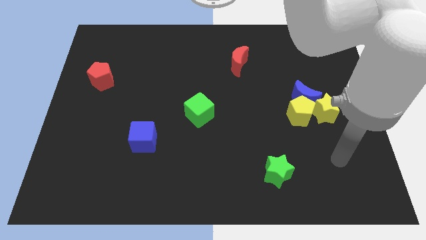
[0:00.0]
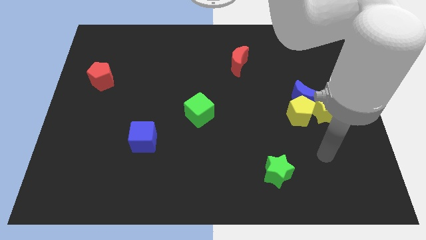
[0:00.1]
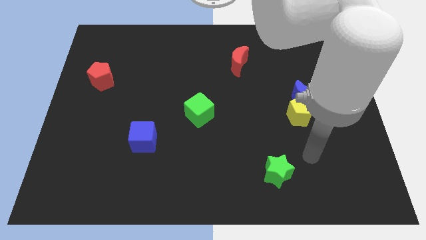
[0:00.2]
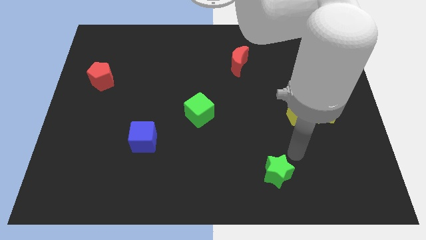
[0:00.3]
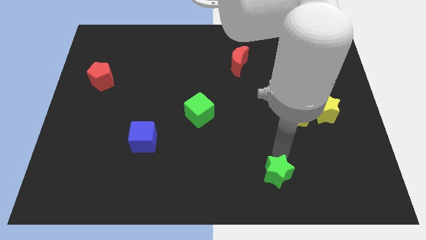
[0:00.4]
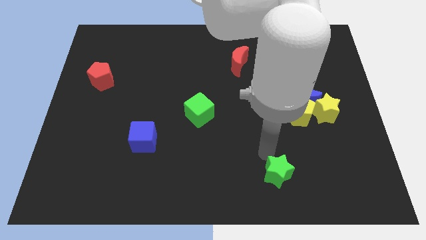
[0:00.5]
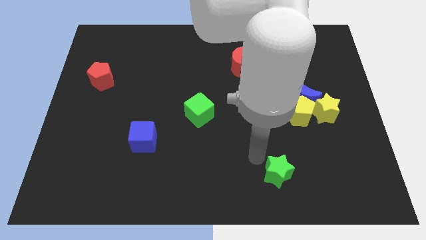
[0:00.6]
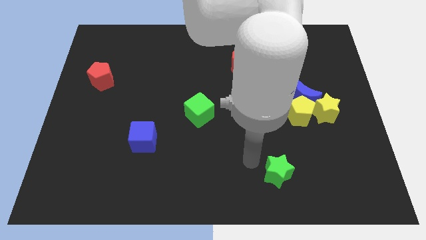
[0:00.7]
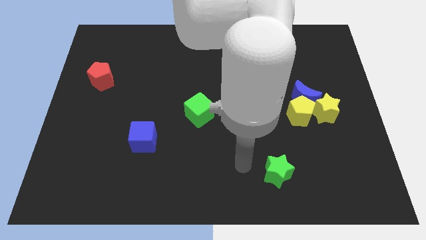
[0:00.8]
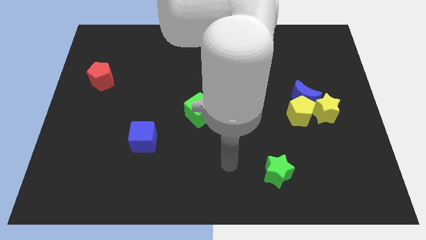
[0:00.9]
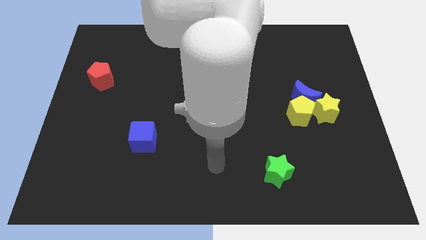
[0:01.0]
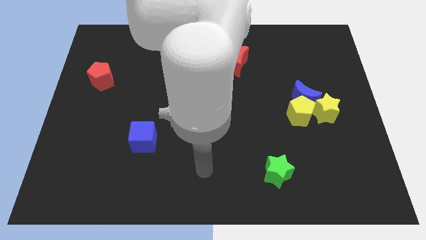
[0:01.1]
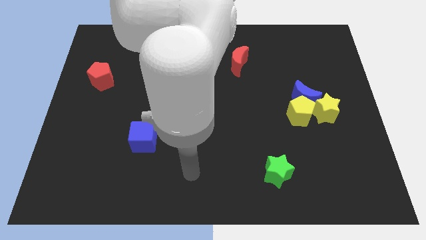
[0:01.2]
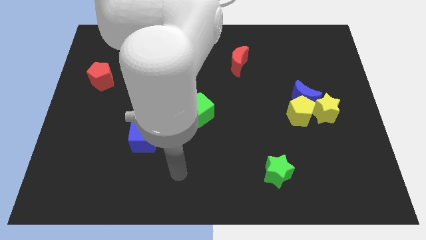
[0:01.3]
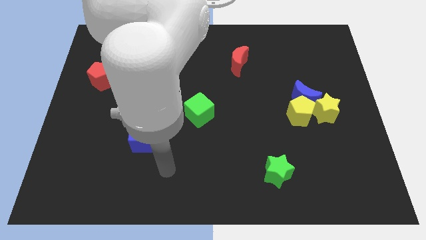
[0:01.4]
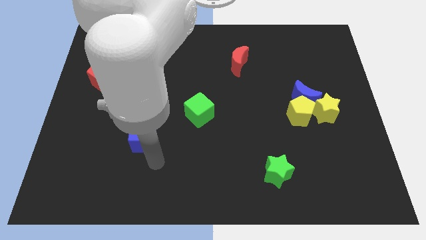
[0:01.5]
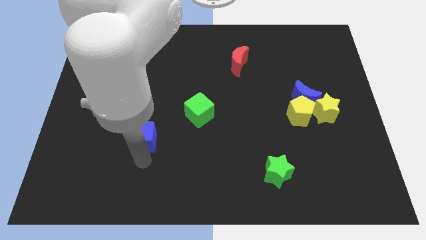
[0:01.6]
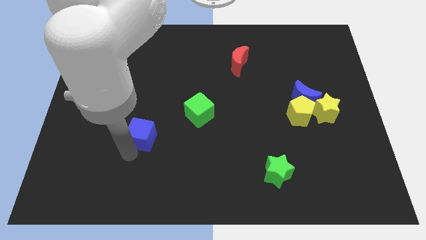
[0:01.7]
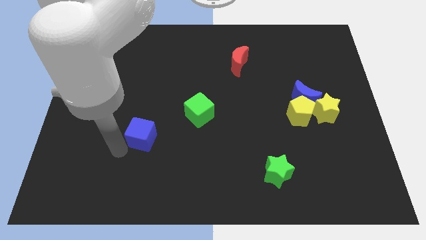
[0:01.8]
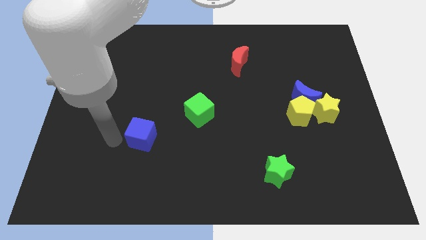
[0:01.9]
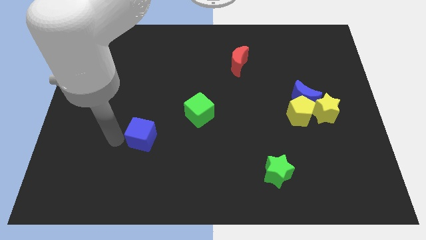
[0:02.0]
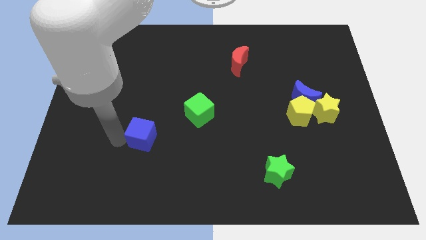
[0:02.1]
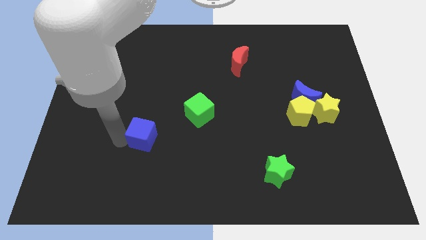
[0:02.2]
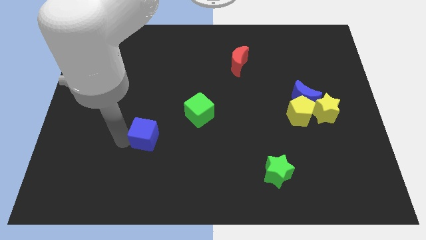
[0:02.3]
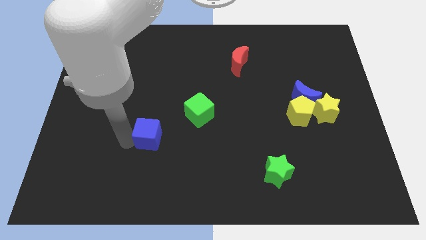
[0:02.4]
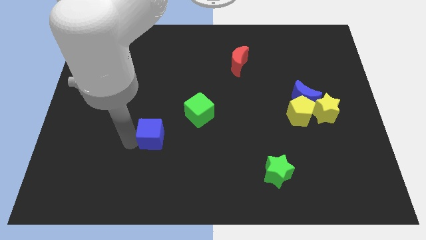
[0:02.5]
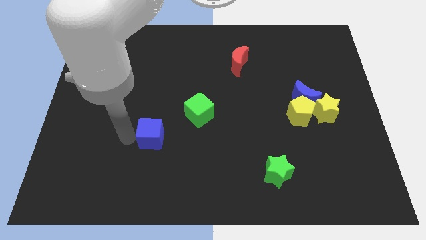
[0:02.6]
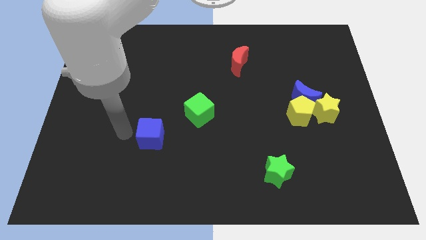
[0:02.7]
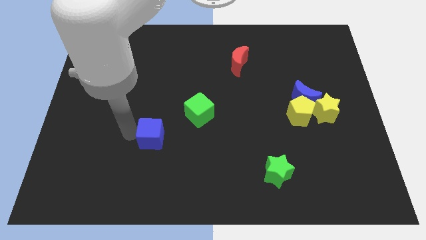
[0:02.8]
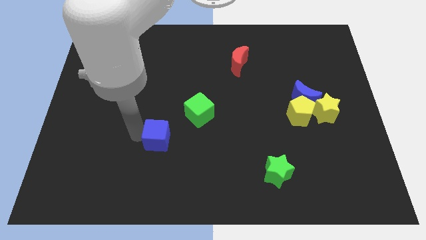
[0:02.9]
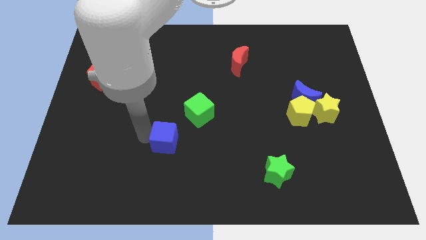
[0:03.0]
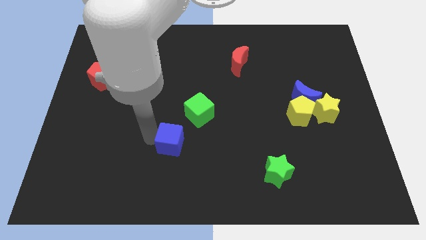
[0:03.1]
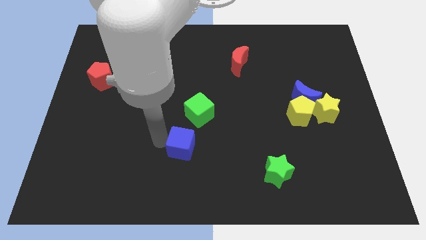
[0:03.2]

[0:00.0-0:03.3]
slide the blue cube slightly to the right

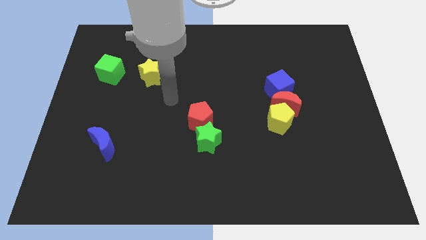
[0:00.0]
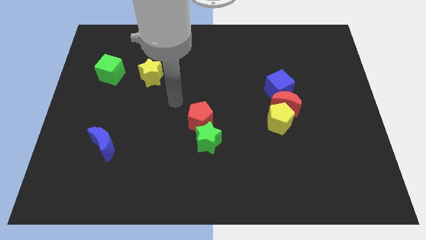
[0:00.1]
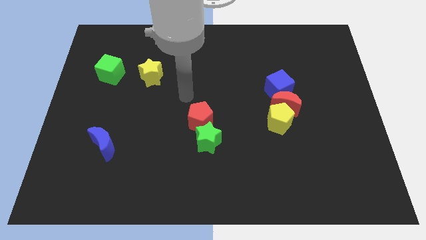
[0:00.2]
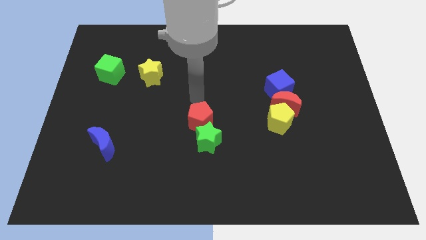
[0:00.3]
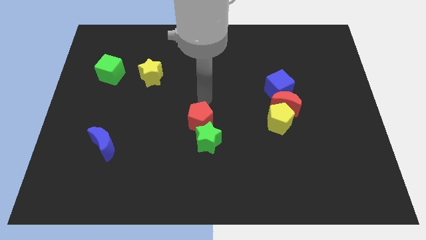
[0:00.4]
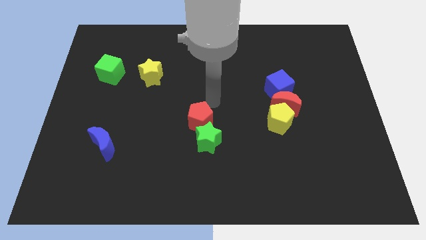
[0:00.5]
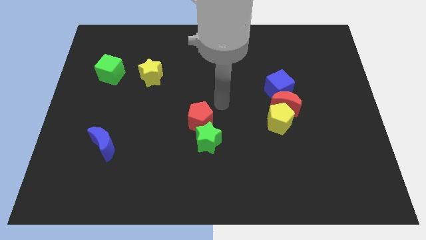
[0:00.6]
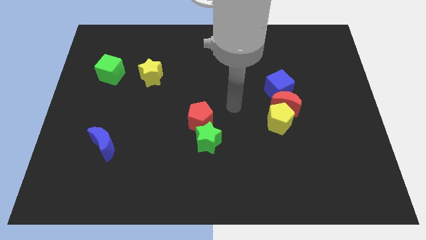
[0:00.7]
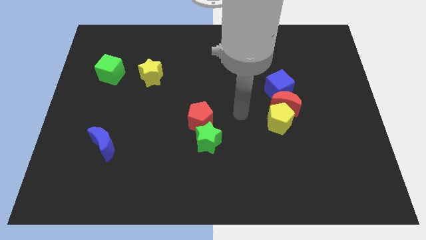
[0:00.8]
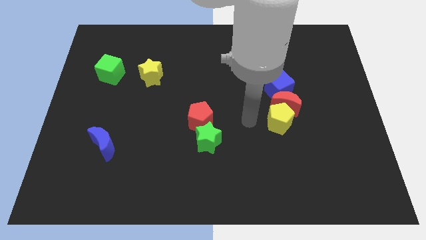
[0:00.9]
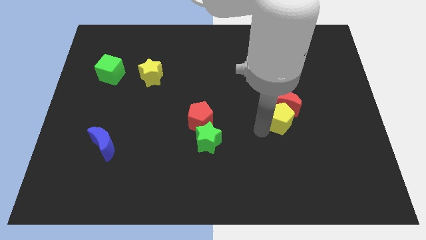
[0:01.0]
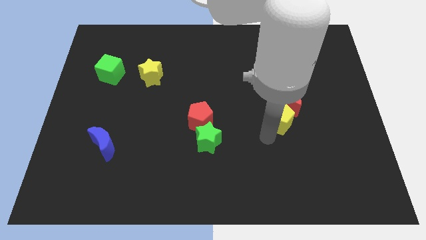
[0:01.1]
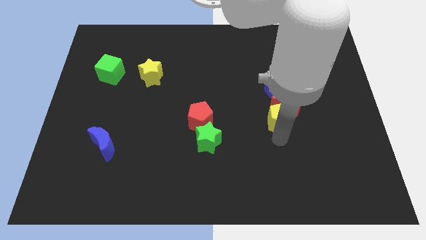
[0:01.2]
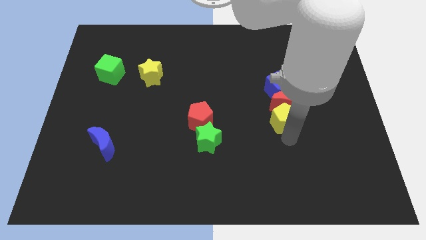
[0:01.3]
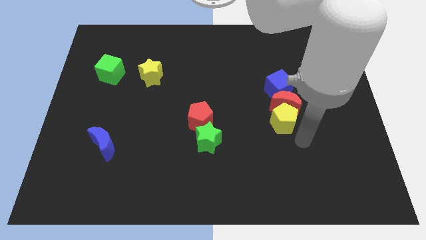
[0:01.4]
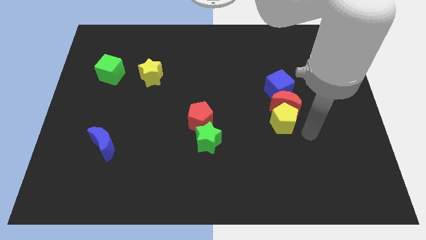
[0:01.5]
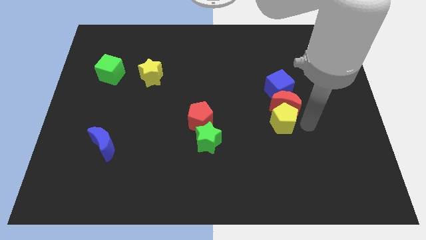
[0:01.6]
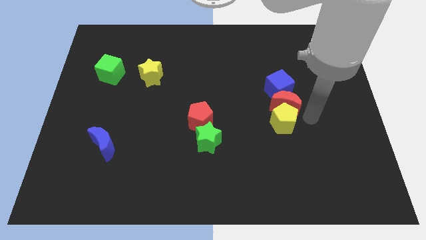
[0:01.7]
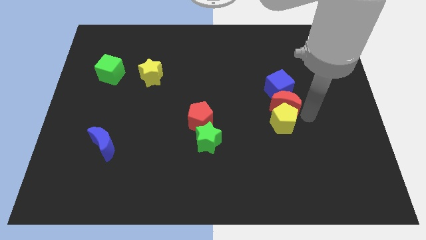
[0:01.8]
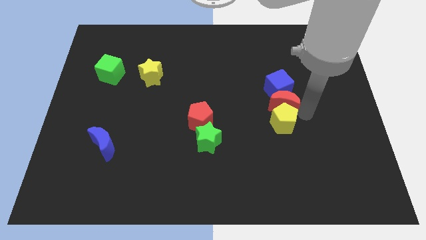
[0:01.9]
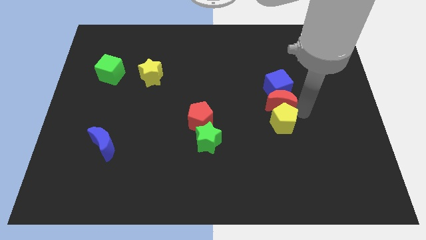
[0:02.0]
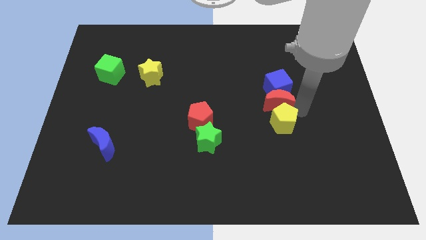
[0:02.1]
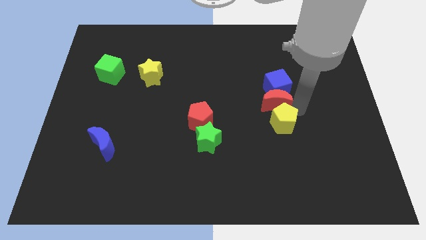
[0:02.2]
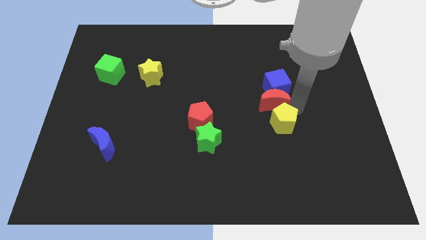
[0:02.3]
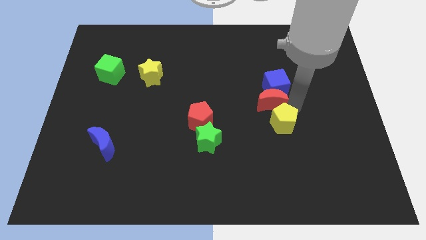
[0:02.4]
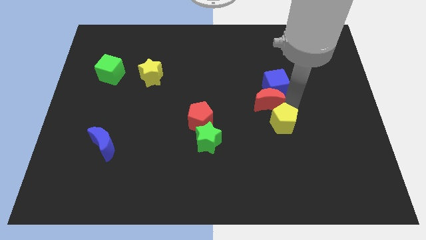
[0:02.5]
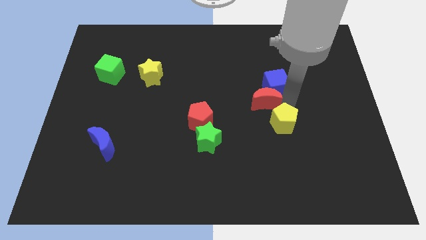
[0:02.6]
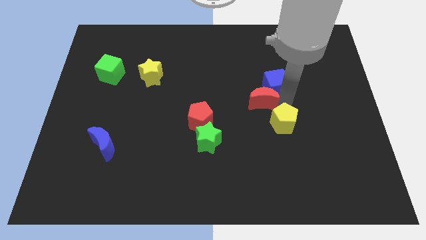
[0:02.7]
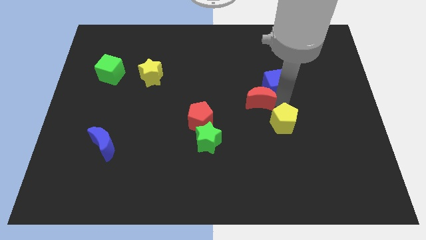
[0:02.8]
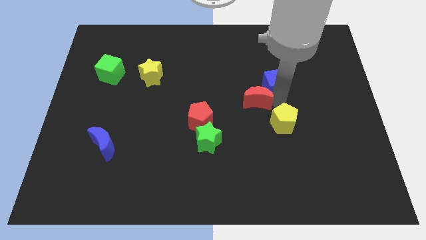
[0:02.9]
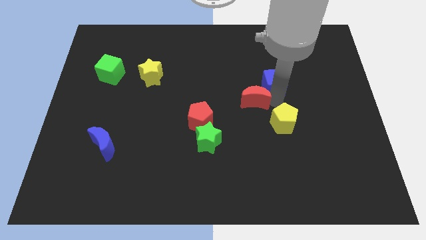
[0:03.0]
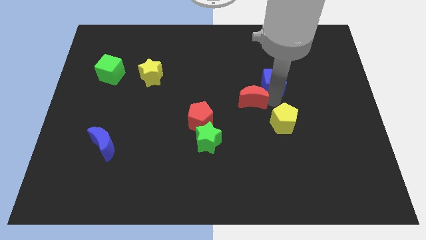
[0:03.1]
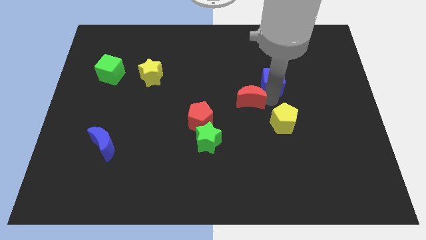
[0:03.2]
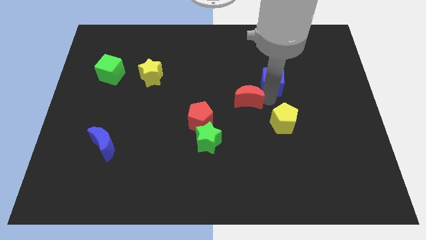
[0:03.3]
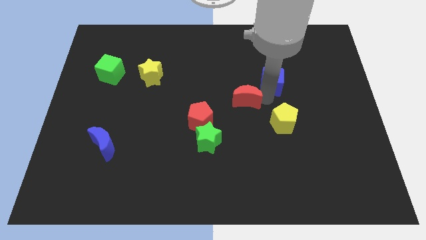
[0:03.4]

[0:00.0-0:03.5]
slide the red moon up and left diagonally somewhat

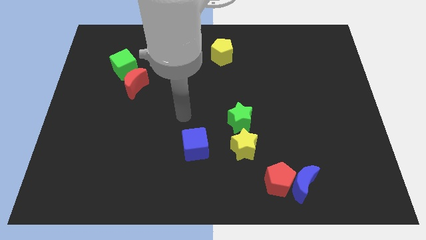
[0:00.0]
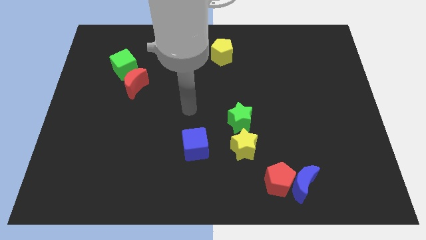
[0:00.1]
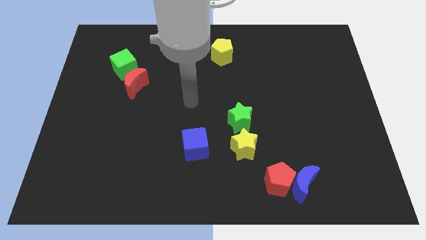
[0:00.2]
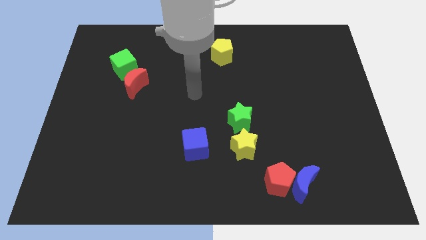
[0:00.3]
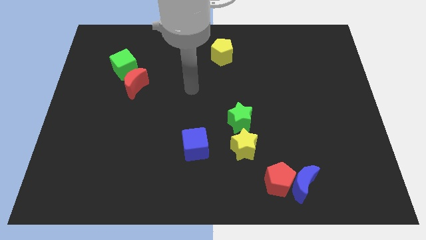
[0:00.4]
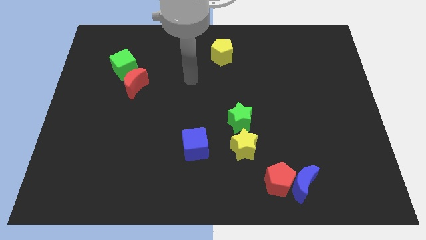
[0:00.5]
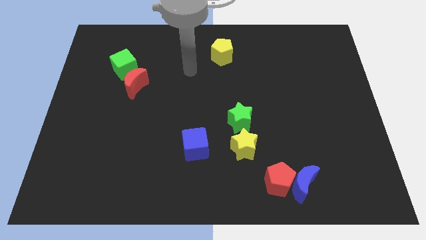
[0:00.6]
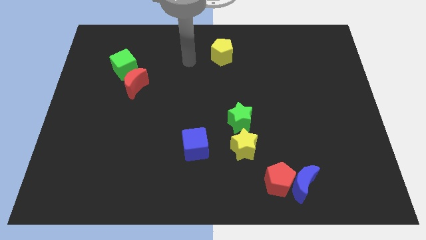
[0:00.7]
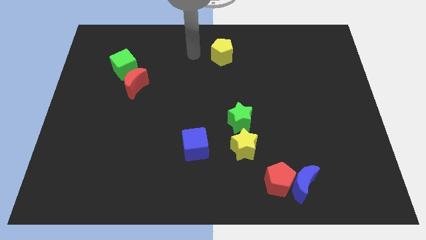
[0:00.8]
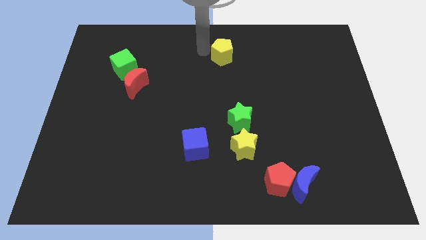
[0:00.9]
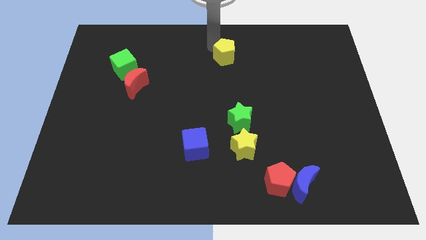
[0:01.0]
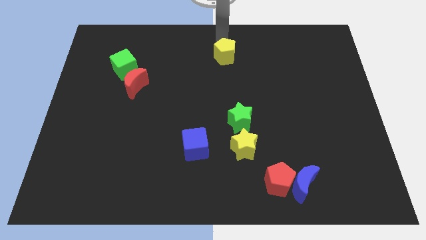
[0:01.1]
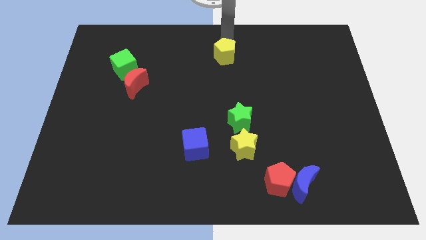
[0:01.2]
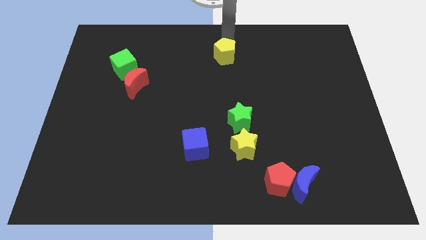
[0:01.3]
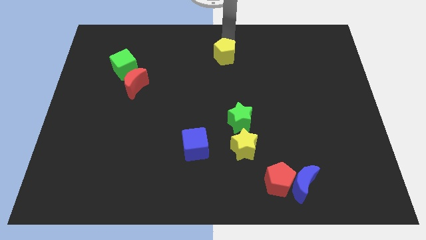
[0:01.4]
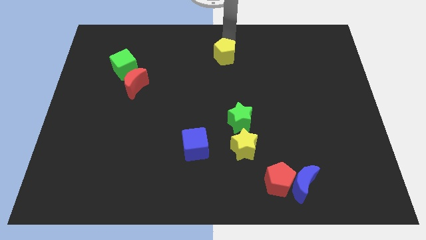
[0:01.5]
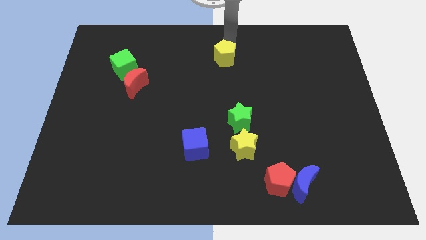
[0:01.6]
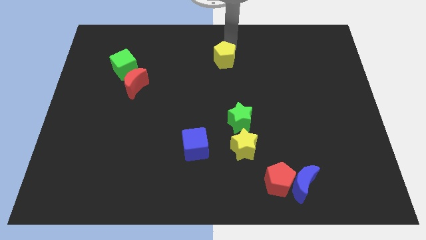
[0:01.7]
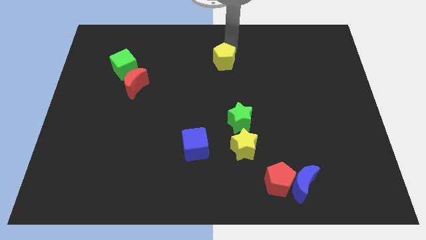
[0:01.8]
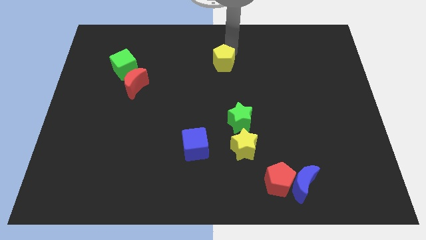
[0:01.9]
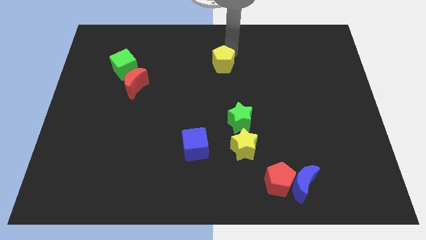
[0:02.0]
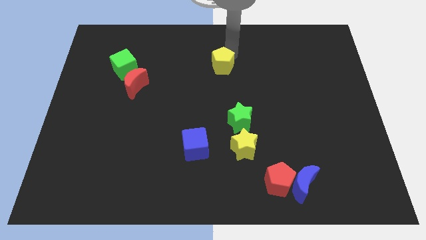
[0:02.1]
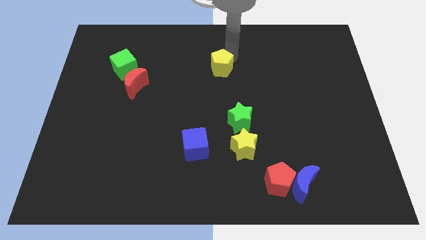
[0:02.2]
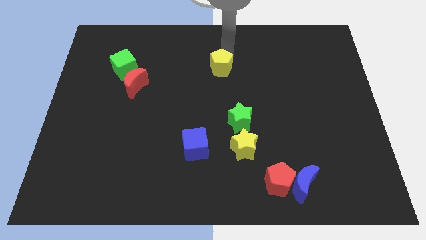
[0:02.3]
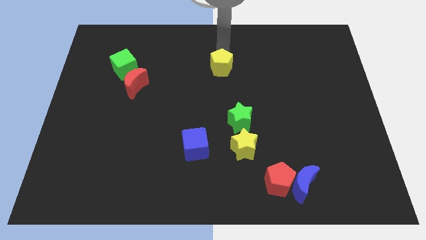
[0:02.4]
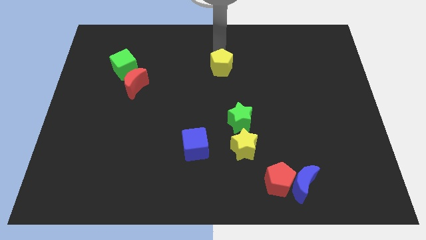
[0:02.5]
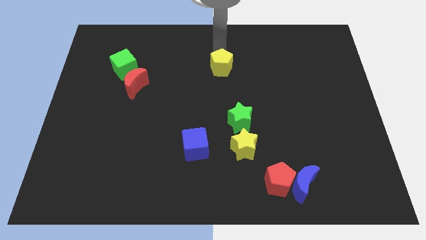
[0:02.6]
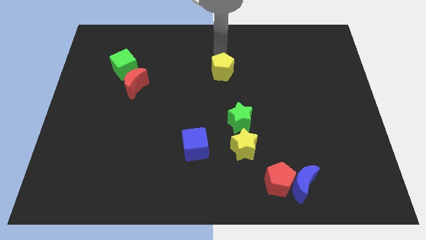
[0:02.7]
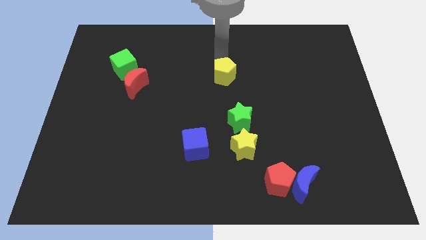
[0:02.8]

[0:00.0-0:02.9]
slightly push the yellow pentagon down
